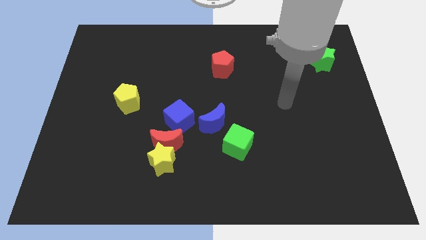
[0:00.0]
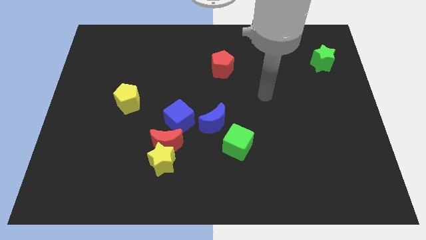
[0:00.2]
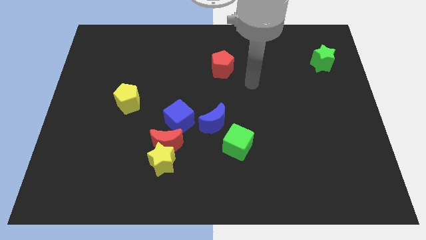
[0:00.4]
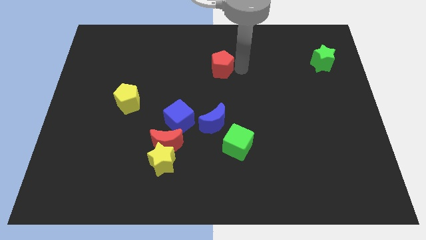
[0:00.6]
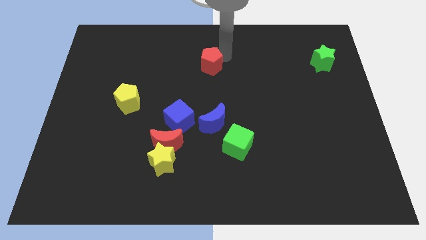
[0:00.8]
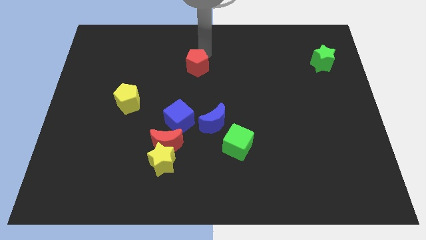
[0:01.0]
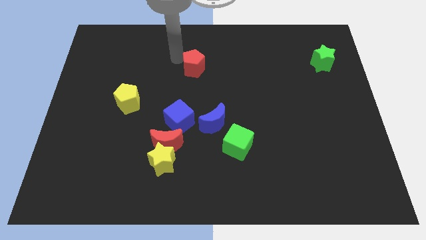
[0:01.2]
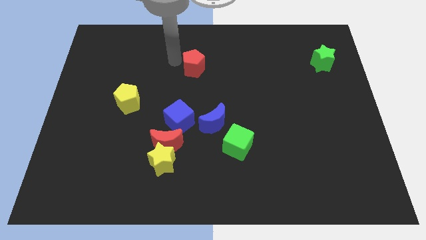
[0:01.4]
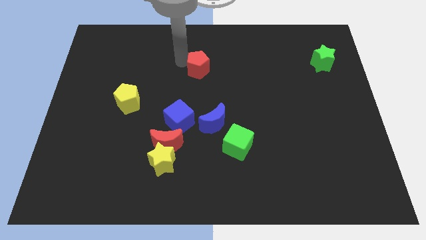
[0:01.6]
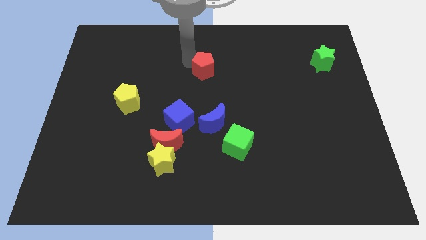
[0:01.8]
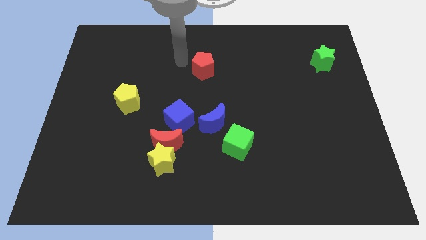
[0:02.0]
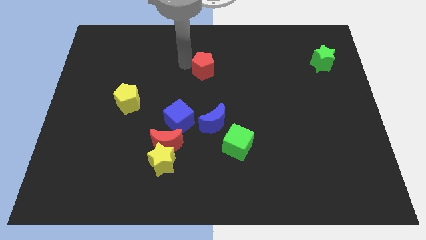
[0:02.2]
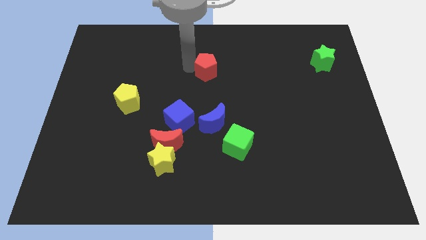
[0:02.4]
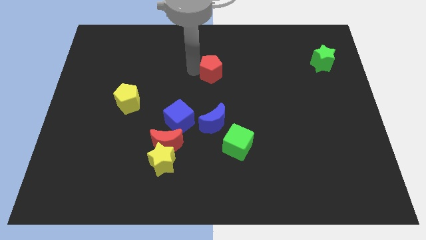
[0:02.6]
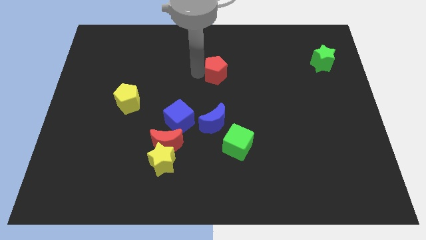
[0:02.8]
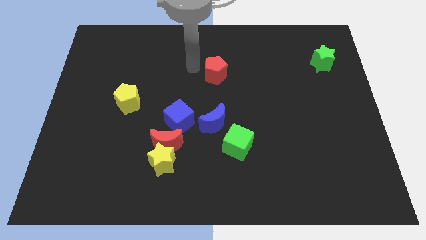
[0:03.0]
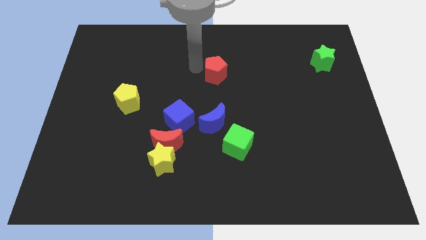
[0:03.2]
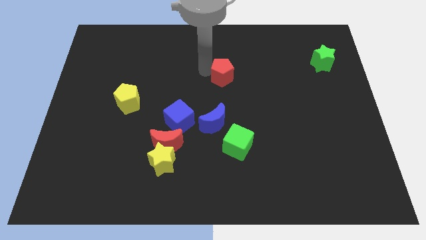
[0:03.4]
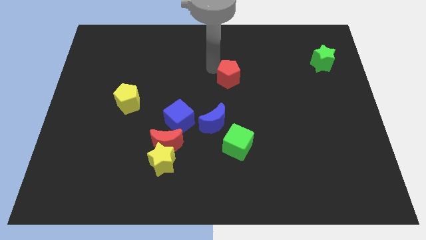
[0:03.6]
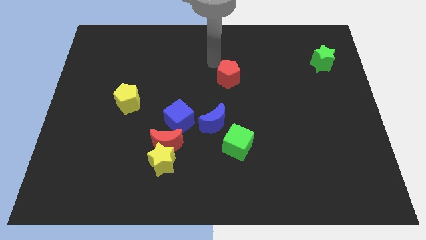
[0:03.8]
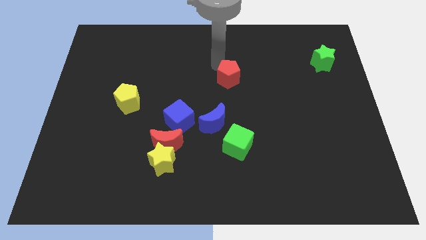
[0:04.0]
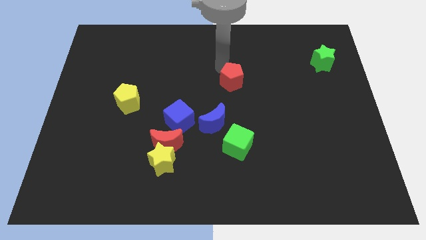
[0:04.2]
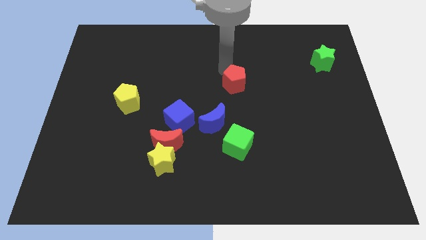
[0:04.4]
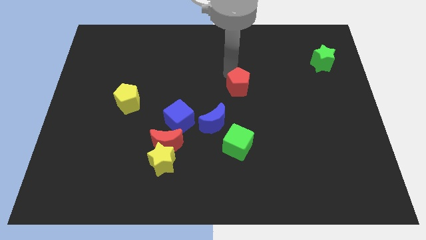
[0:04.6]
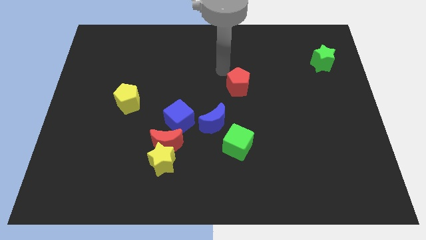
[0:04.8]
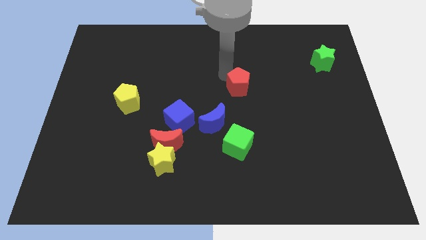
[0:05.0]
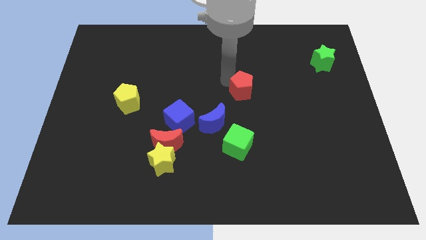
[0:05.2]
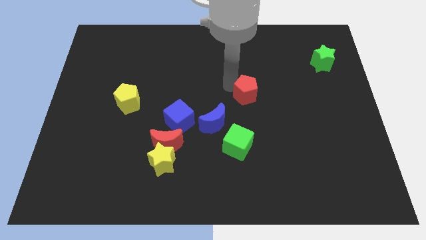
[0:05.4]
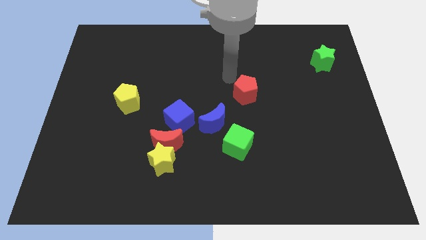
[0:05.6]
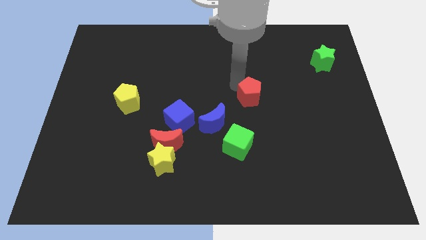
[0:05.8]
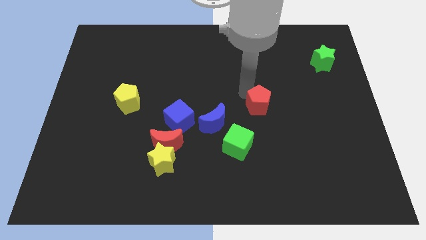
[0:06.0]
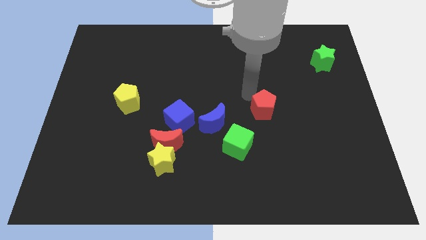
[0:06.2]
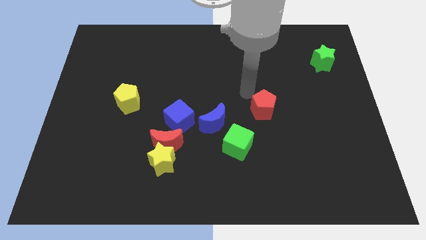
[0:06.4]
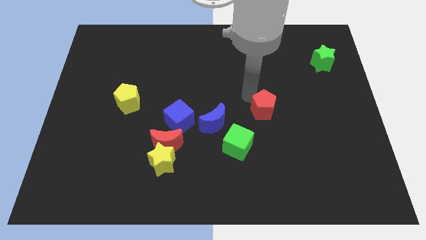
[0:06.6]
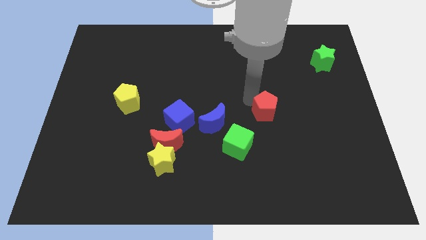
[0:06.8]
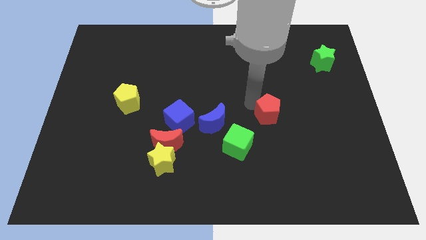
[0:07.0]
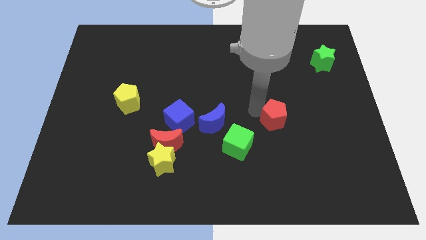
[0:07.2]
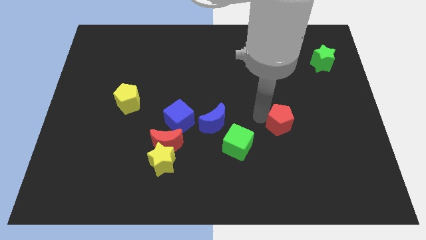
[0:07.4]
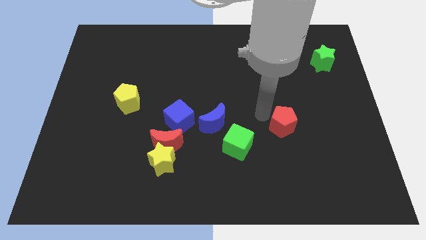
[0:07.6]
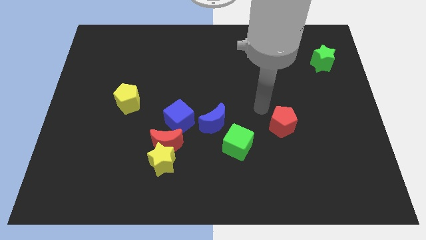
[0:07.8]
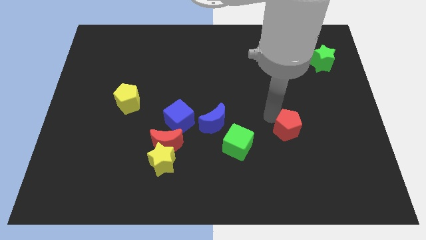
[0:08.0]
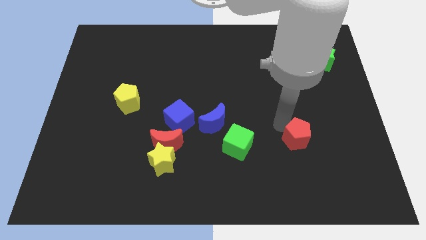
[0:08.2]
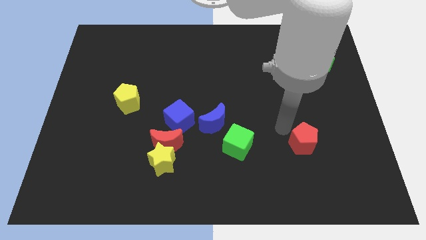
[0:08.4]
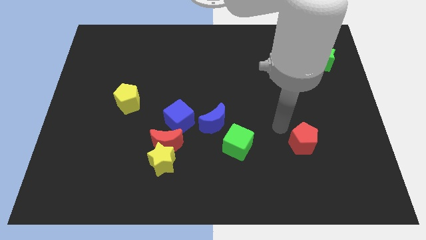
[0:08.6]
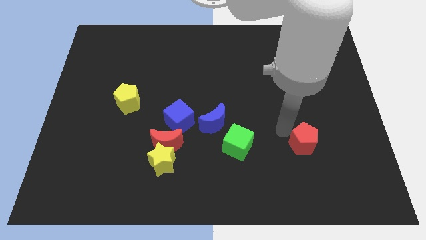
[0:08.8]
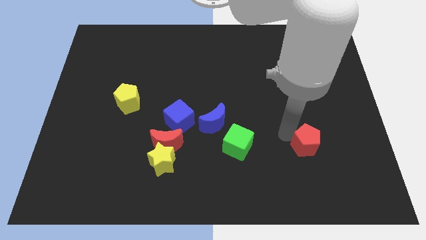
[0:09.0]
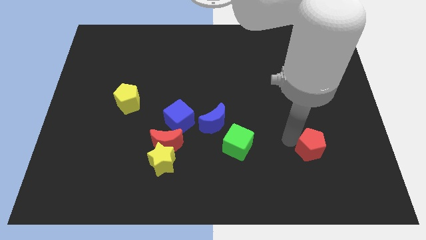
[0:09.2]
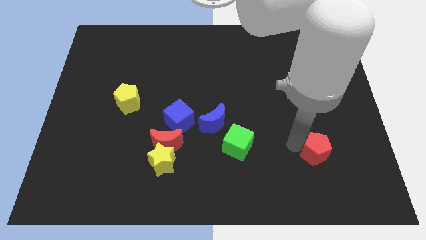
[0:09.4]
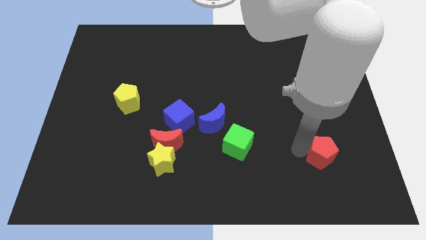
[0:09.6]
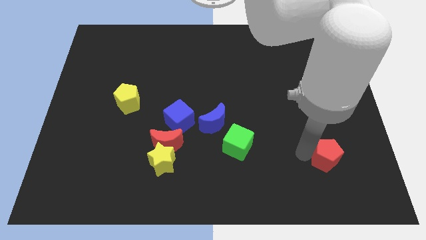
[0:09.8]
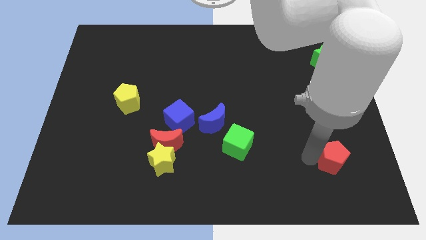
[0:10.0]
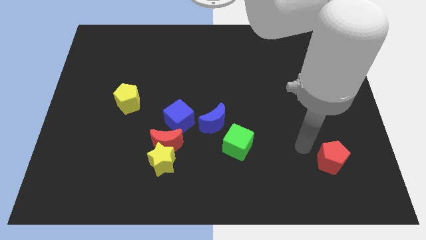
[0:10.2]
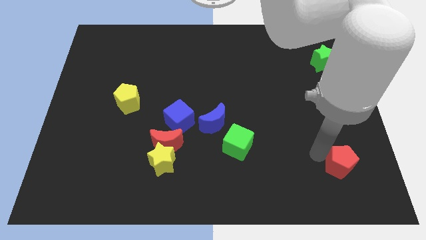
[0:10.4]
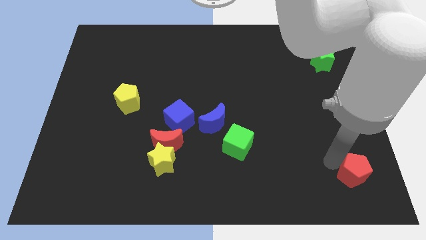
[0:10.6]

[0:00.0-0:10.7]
move the red pentagon to the lower right corner
